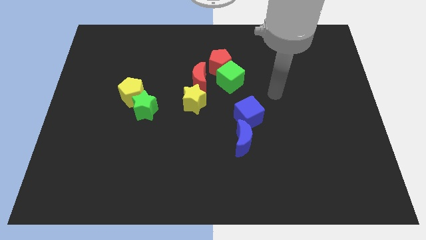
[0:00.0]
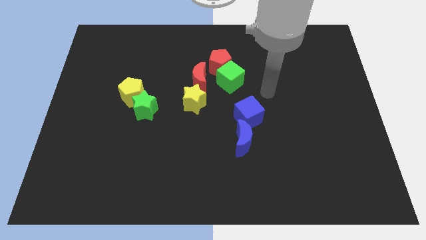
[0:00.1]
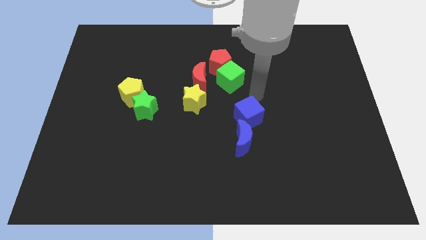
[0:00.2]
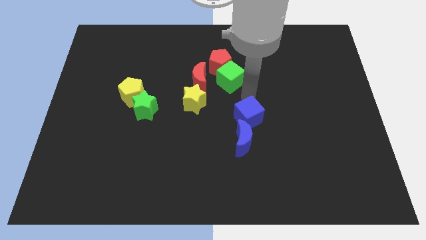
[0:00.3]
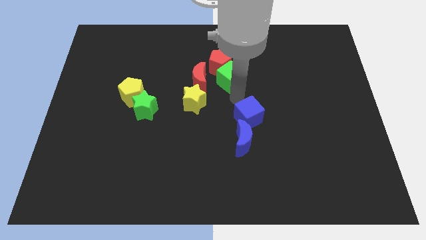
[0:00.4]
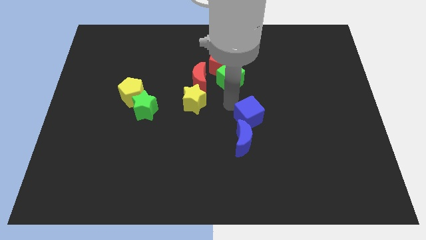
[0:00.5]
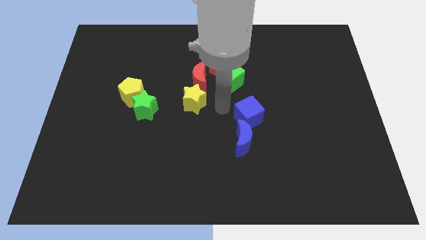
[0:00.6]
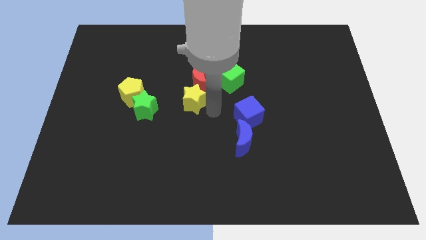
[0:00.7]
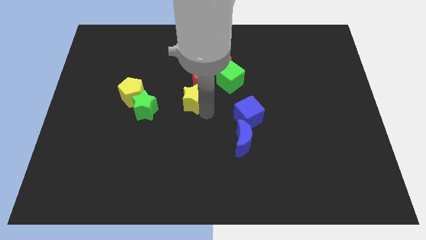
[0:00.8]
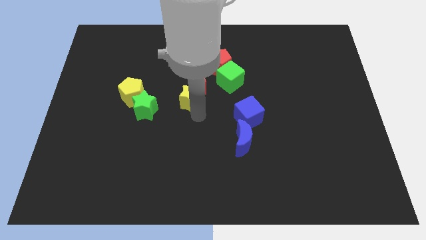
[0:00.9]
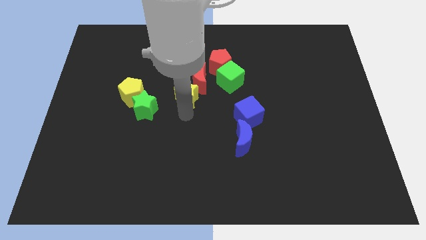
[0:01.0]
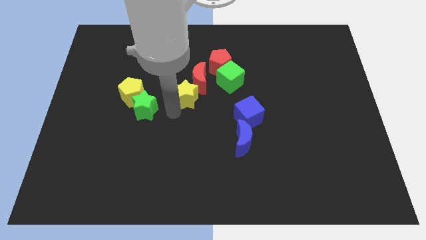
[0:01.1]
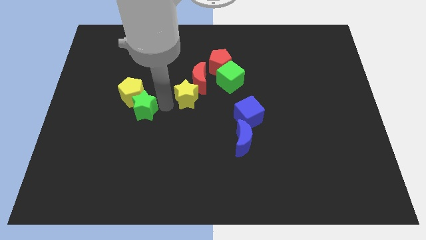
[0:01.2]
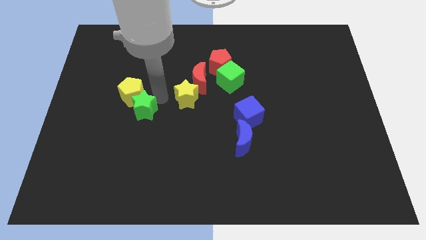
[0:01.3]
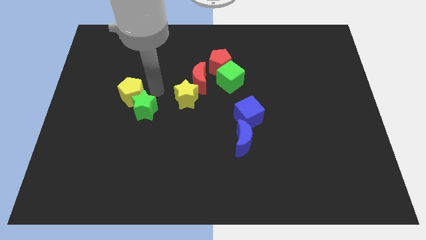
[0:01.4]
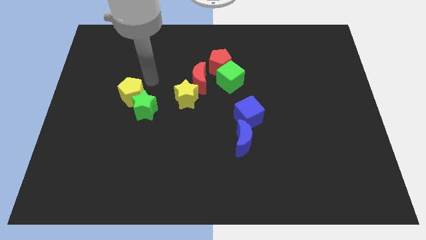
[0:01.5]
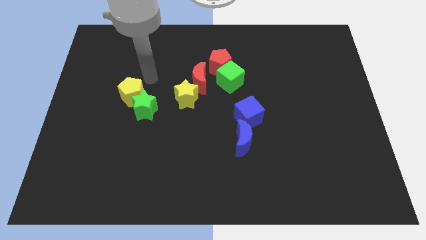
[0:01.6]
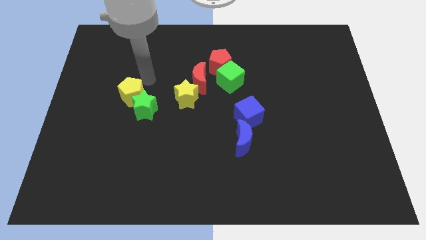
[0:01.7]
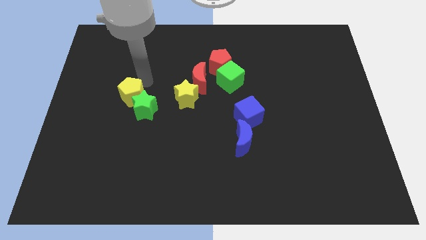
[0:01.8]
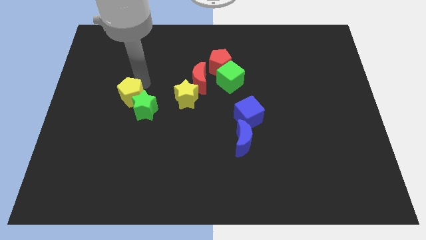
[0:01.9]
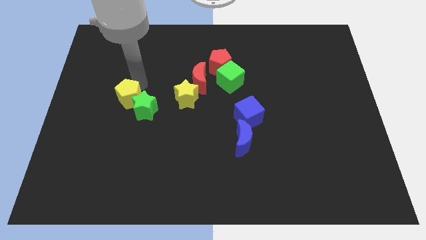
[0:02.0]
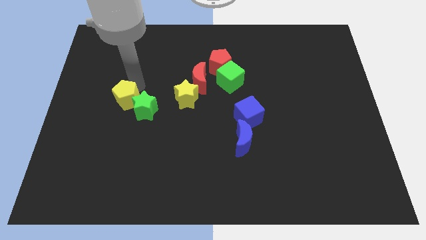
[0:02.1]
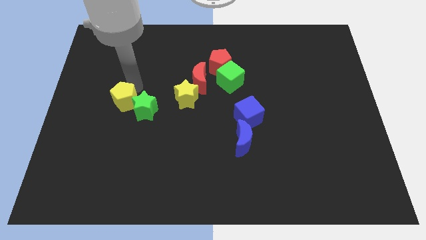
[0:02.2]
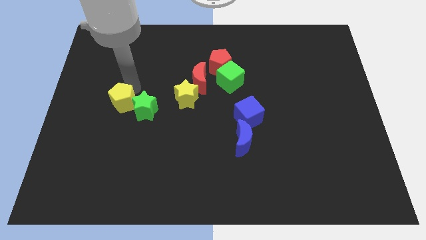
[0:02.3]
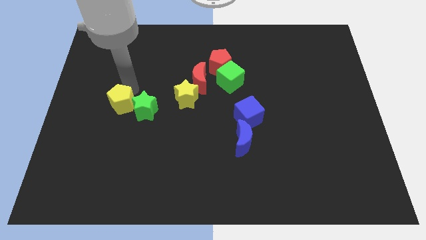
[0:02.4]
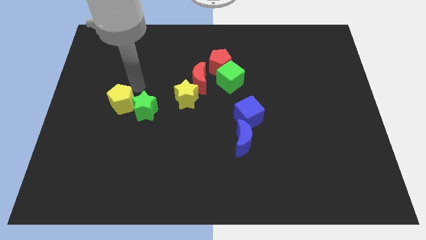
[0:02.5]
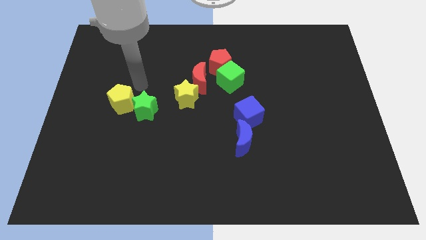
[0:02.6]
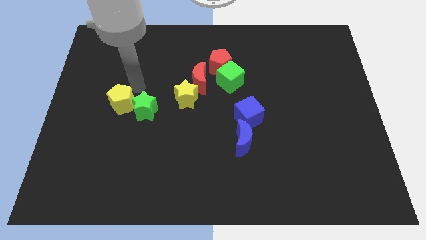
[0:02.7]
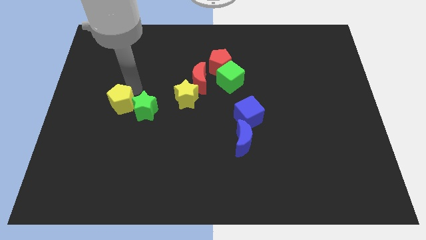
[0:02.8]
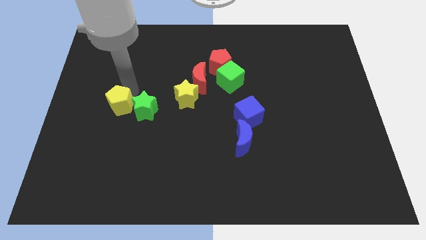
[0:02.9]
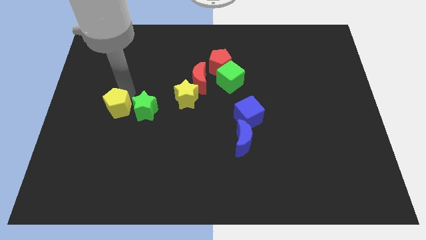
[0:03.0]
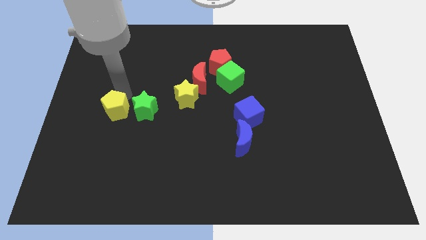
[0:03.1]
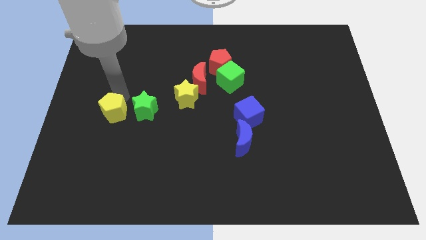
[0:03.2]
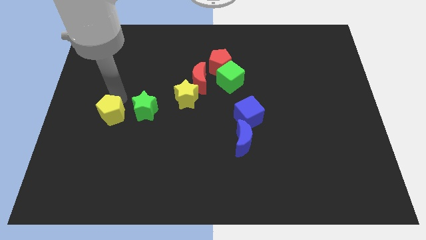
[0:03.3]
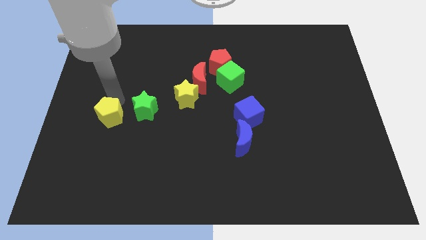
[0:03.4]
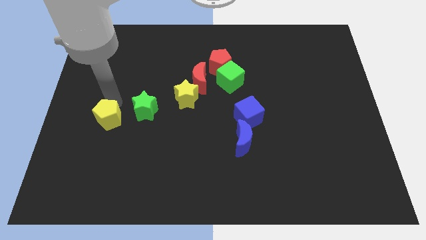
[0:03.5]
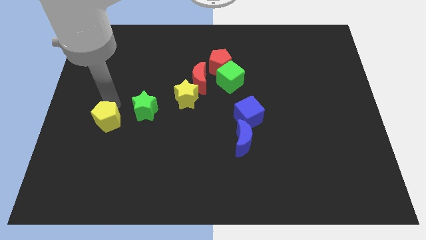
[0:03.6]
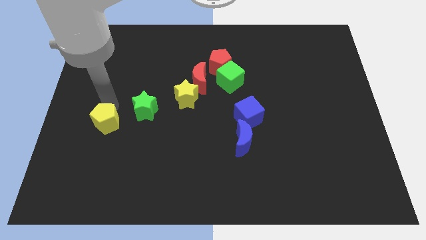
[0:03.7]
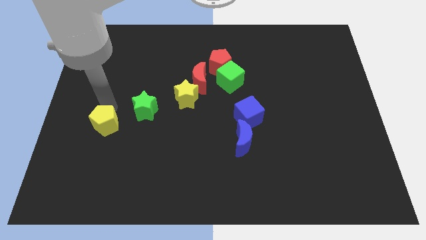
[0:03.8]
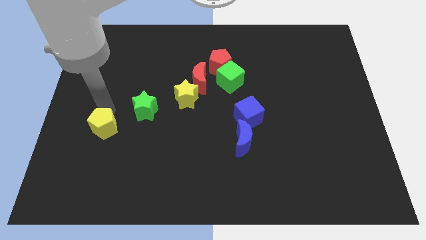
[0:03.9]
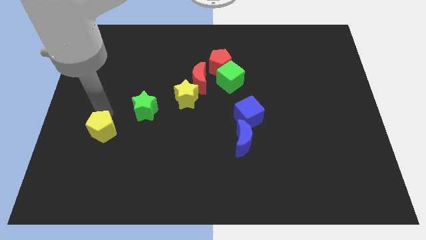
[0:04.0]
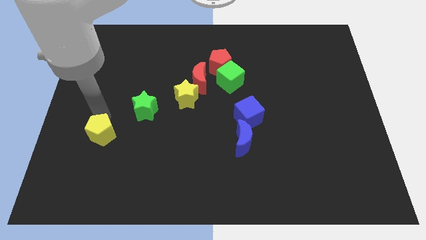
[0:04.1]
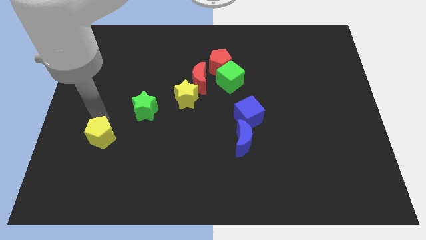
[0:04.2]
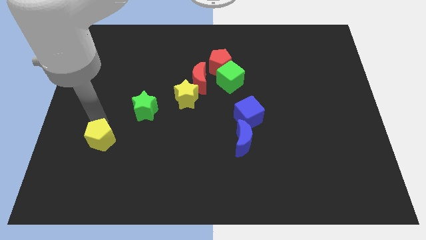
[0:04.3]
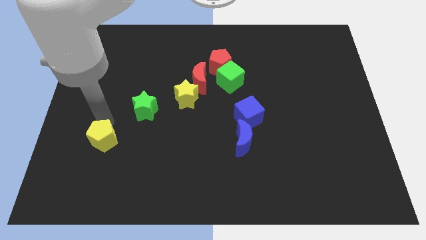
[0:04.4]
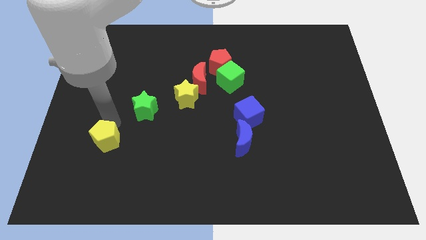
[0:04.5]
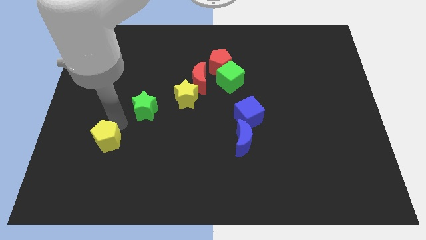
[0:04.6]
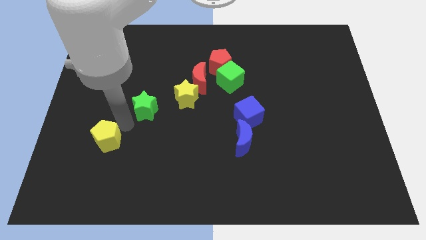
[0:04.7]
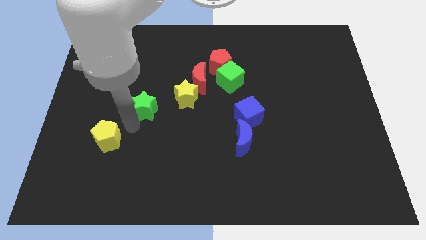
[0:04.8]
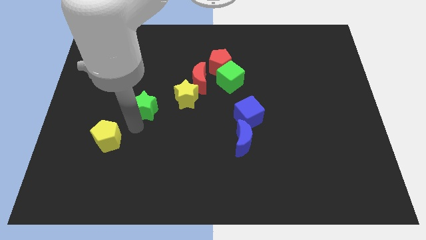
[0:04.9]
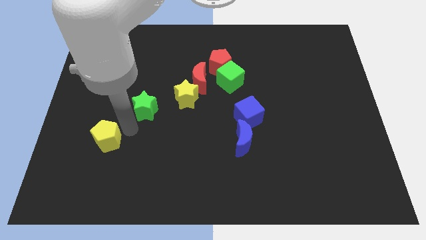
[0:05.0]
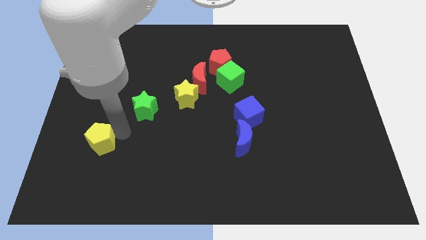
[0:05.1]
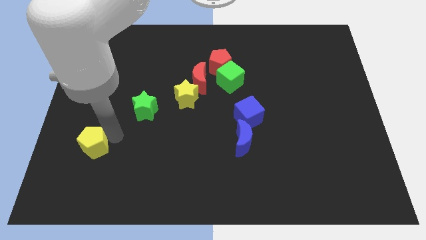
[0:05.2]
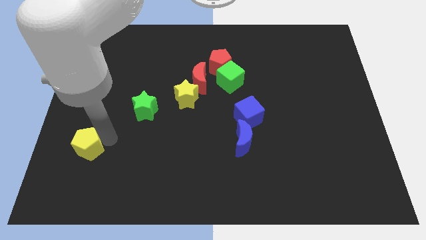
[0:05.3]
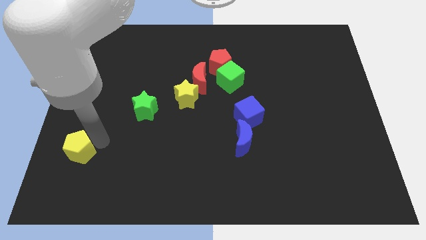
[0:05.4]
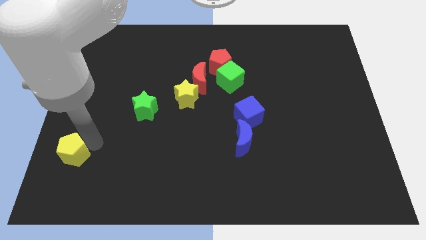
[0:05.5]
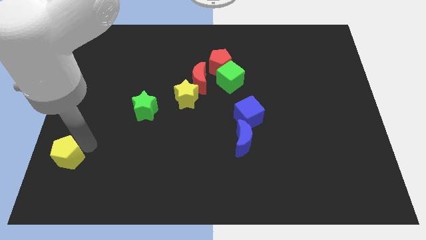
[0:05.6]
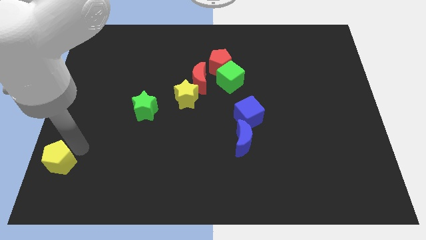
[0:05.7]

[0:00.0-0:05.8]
put the yellow pentagon to the bottom left
